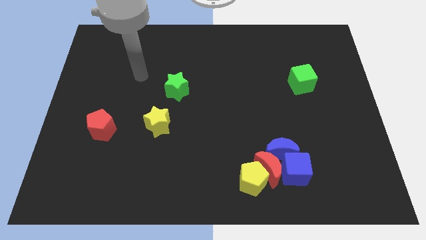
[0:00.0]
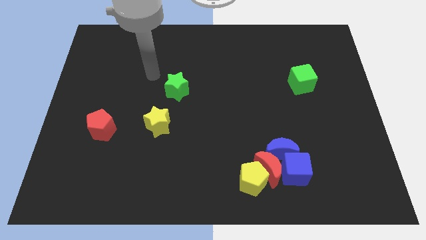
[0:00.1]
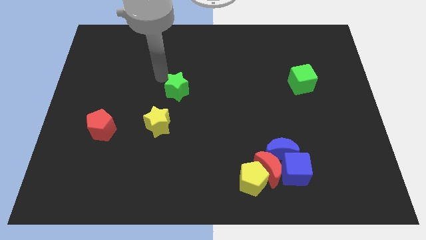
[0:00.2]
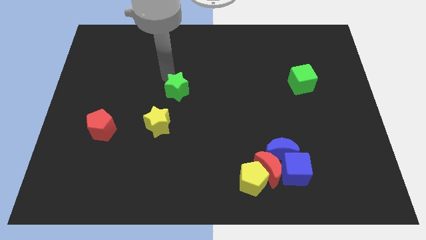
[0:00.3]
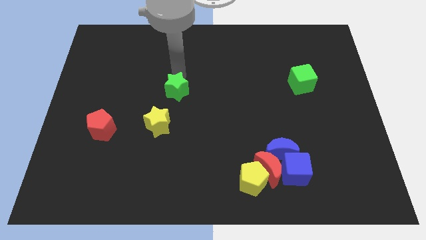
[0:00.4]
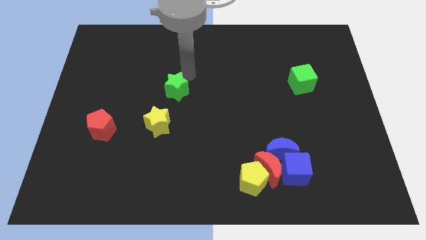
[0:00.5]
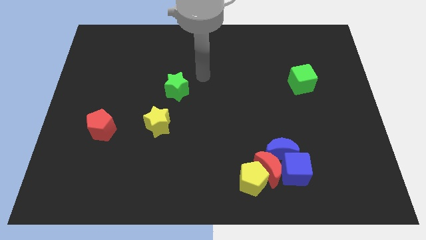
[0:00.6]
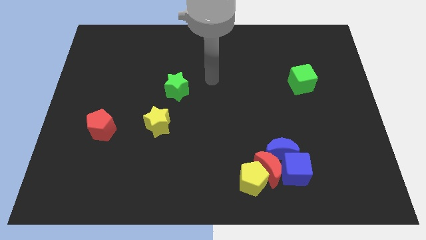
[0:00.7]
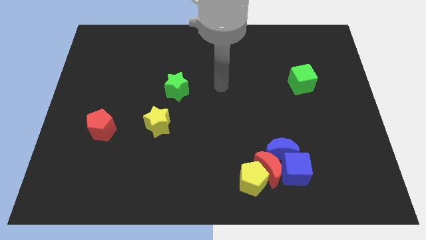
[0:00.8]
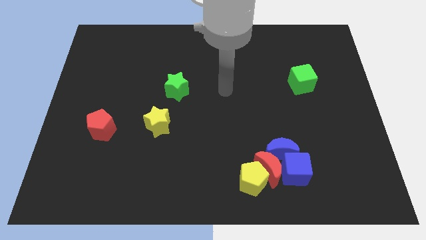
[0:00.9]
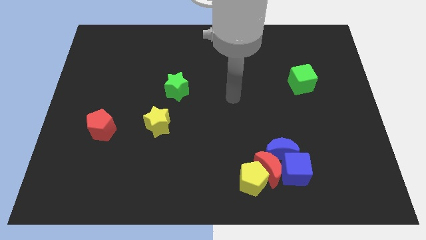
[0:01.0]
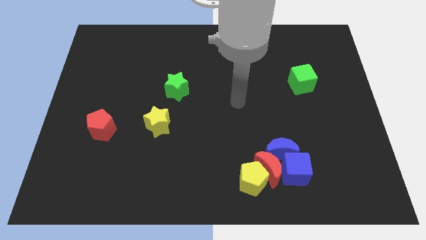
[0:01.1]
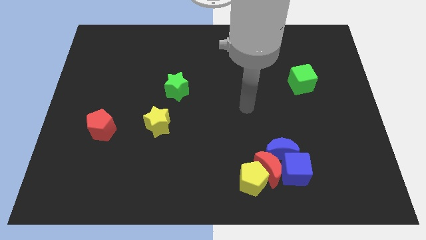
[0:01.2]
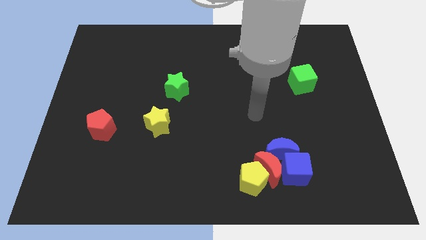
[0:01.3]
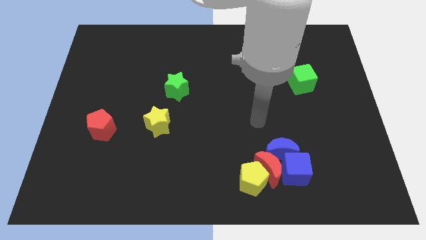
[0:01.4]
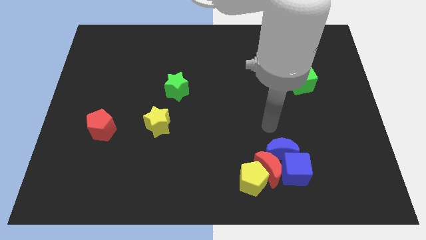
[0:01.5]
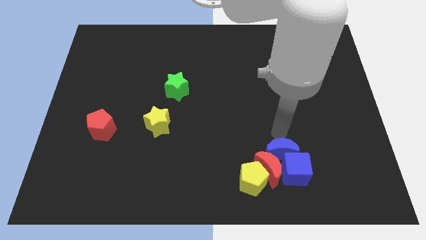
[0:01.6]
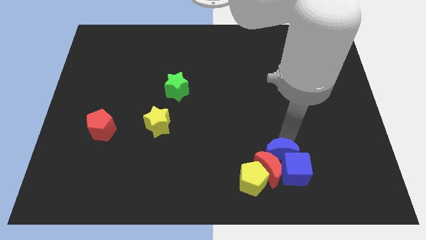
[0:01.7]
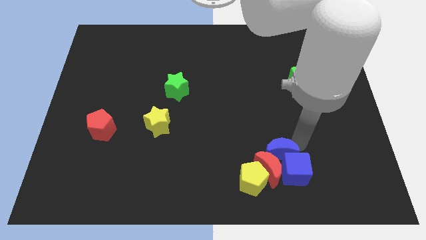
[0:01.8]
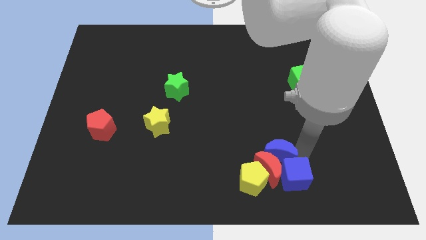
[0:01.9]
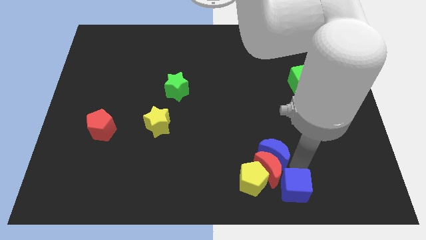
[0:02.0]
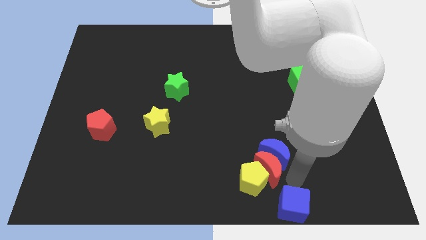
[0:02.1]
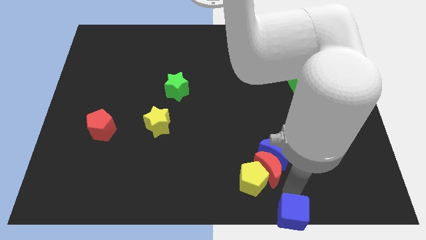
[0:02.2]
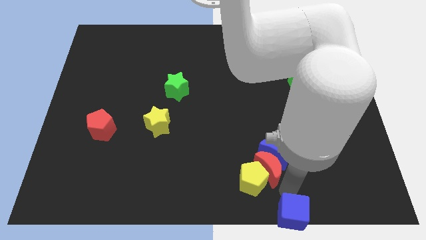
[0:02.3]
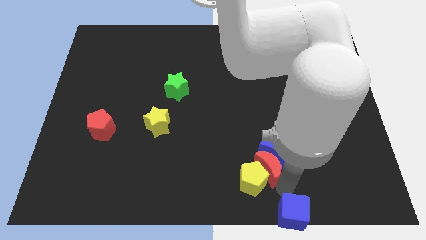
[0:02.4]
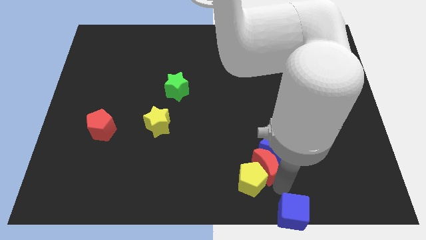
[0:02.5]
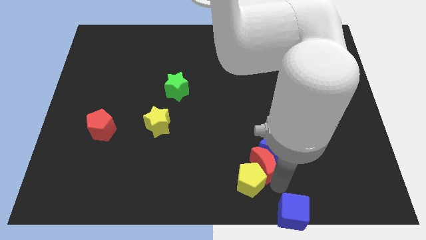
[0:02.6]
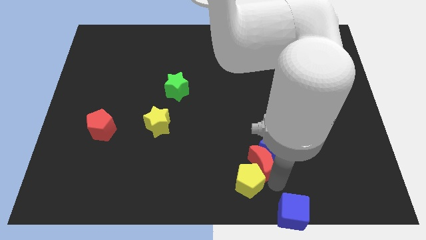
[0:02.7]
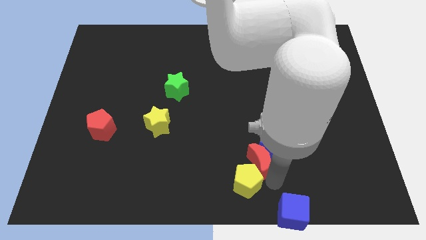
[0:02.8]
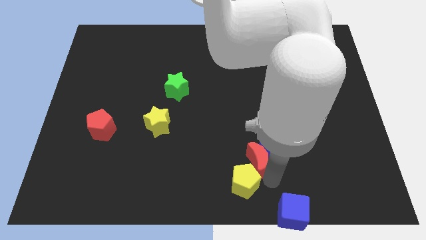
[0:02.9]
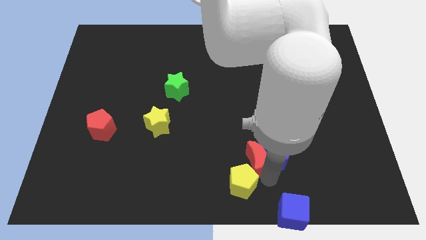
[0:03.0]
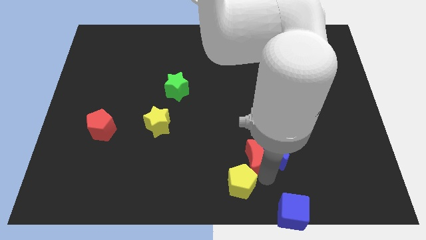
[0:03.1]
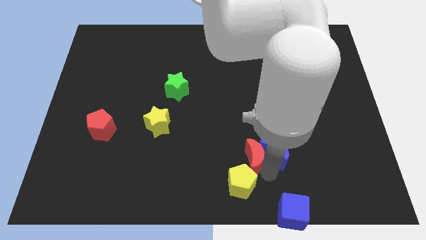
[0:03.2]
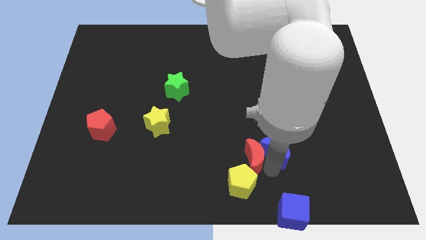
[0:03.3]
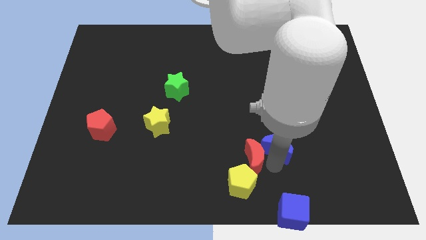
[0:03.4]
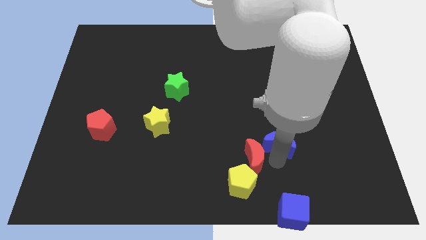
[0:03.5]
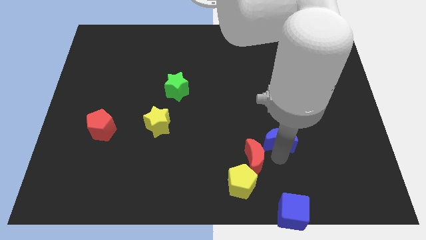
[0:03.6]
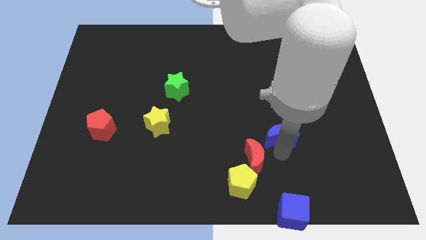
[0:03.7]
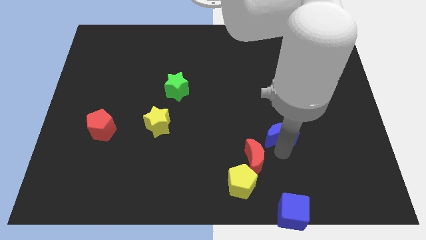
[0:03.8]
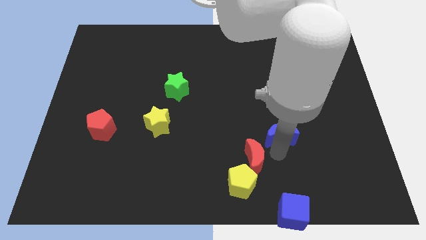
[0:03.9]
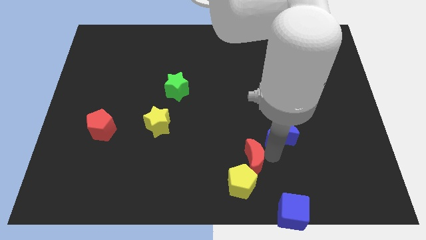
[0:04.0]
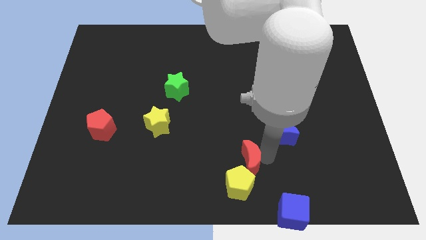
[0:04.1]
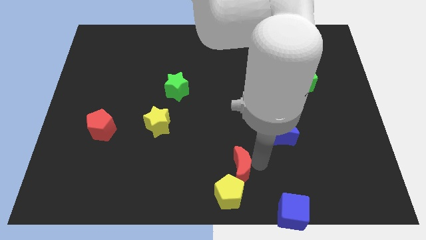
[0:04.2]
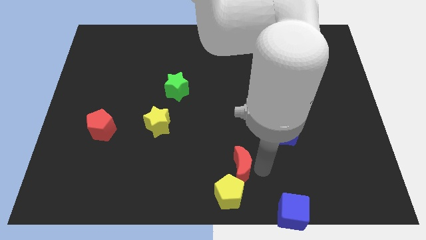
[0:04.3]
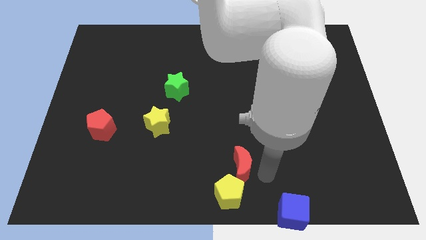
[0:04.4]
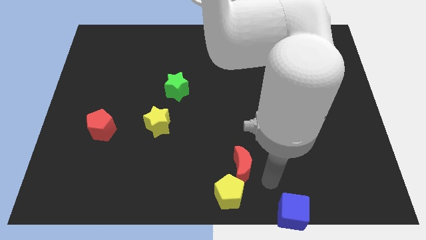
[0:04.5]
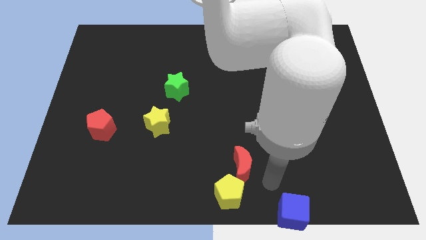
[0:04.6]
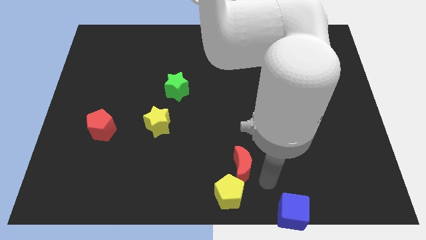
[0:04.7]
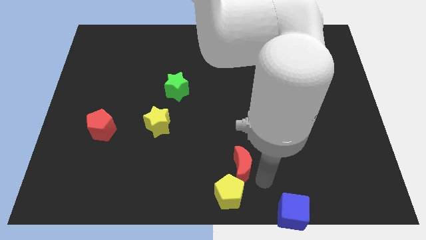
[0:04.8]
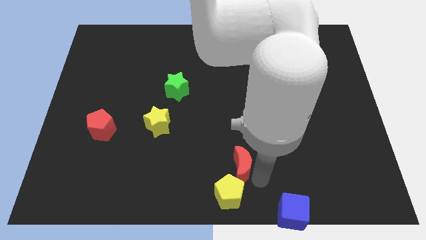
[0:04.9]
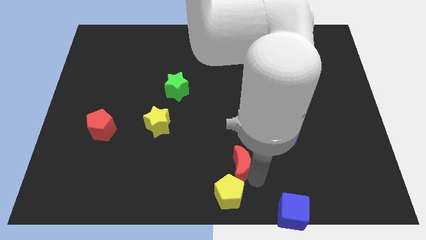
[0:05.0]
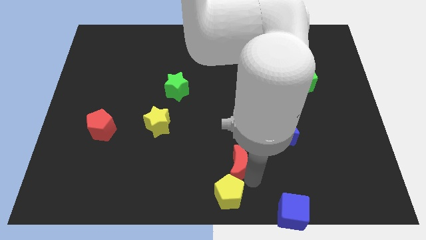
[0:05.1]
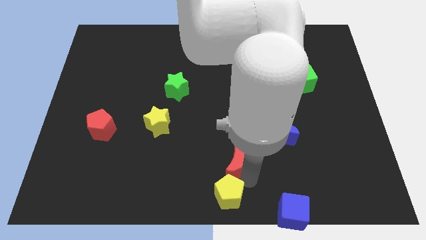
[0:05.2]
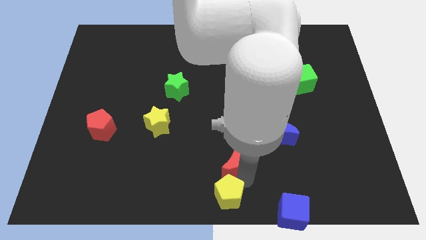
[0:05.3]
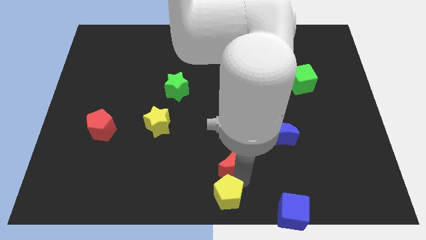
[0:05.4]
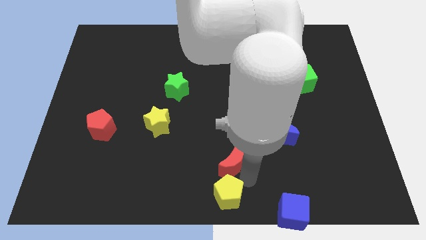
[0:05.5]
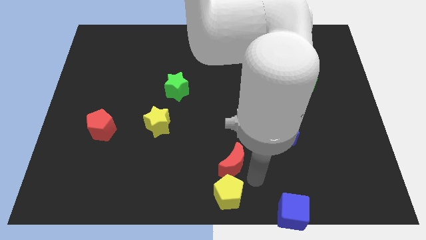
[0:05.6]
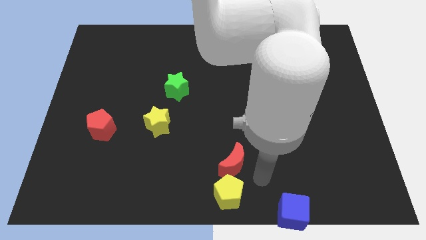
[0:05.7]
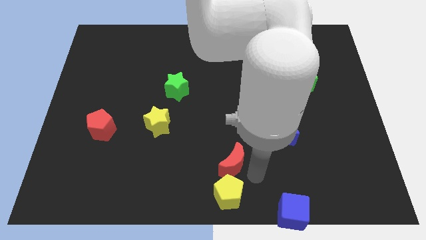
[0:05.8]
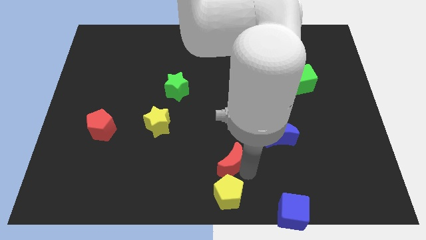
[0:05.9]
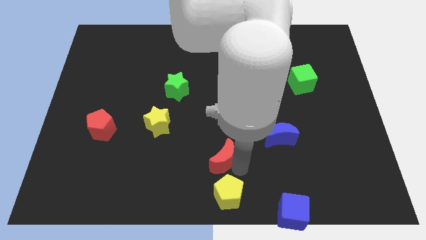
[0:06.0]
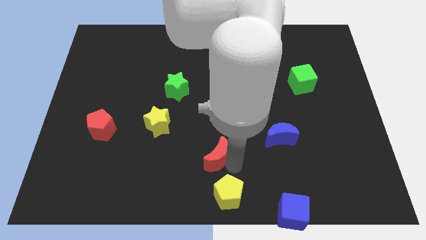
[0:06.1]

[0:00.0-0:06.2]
move the red moon away from the yellow pentagon, blue moon, and blue cube

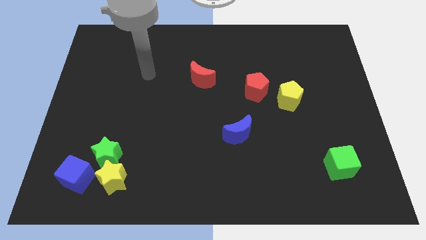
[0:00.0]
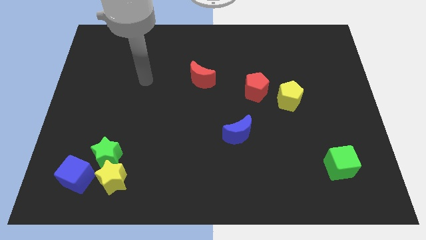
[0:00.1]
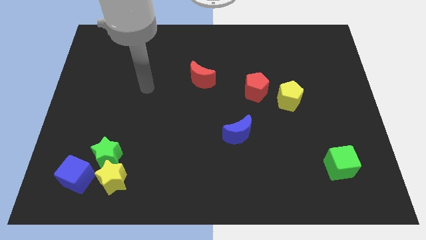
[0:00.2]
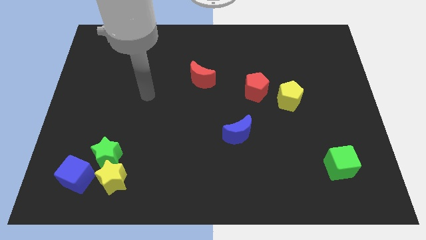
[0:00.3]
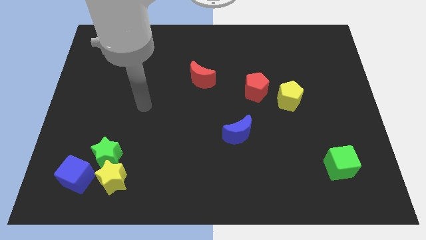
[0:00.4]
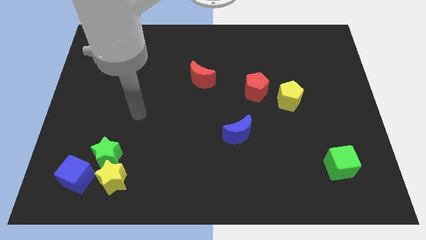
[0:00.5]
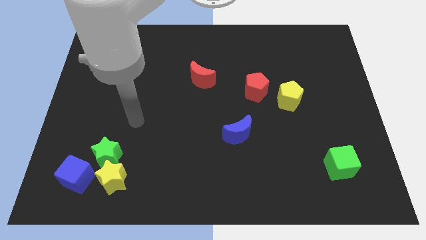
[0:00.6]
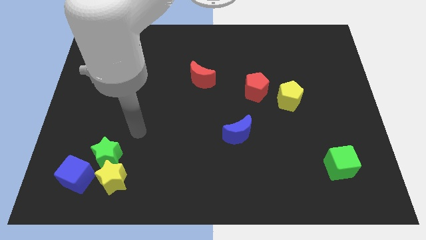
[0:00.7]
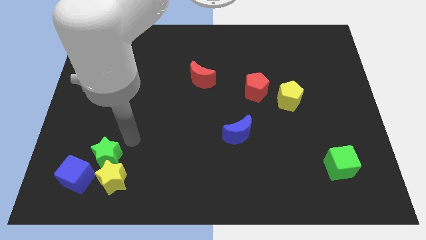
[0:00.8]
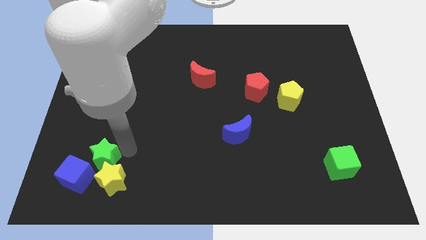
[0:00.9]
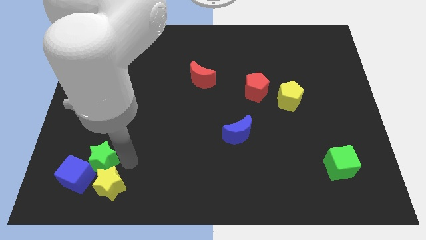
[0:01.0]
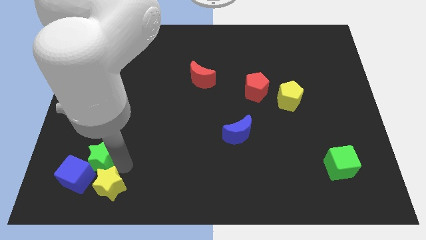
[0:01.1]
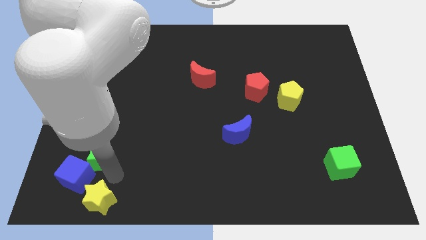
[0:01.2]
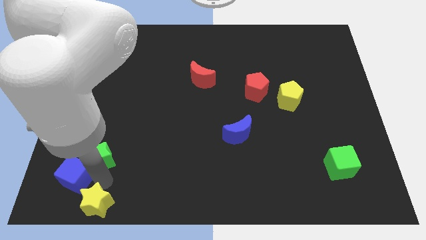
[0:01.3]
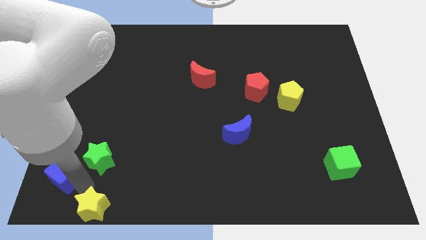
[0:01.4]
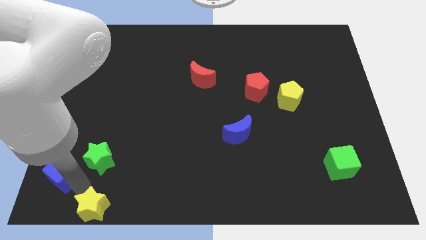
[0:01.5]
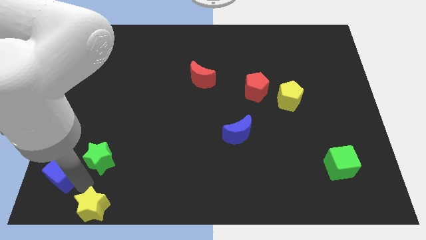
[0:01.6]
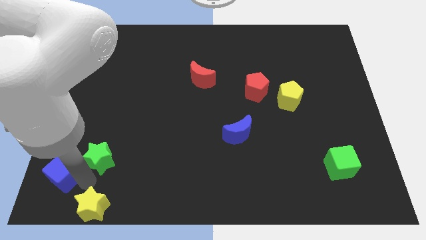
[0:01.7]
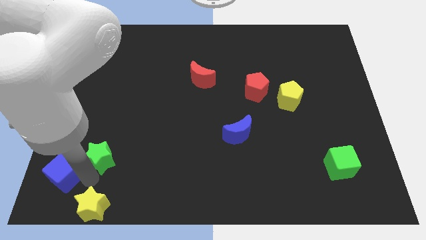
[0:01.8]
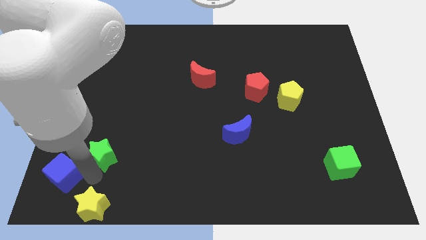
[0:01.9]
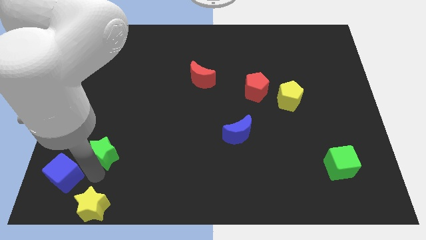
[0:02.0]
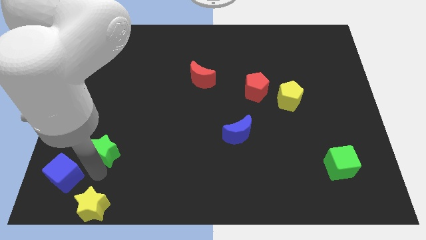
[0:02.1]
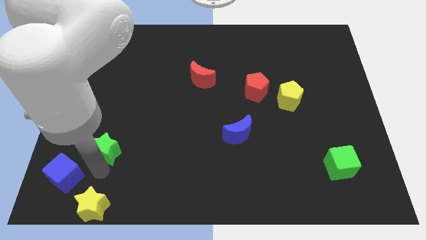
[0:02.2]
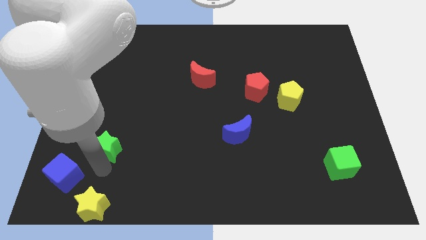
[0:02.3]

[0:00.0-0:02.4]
move the green star away from the yellow star and blue cube

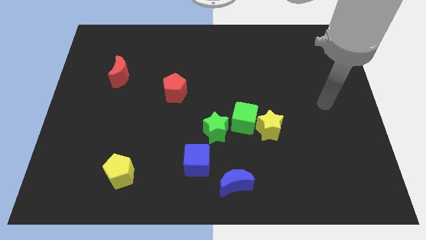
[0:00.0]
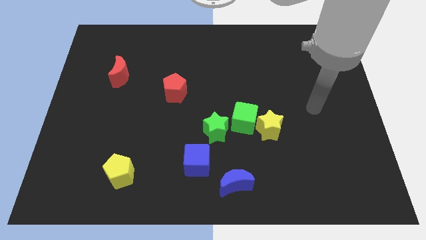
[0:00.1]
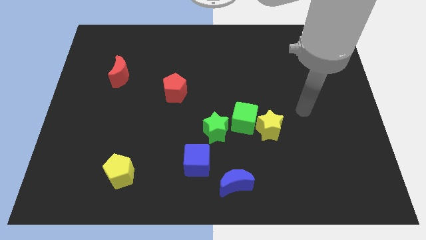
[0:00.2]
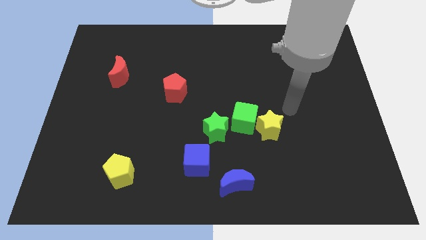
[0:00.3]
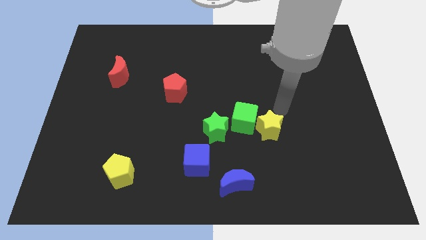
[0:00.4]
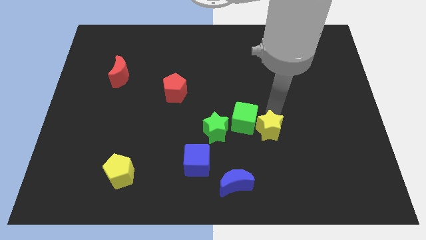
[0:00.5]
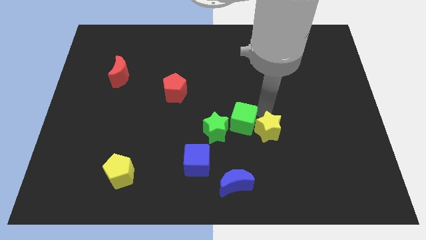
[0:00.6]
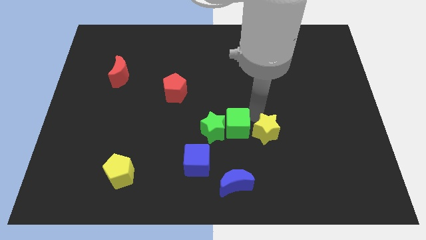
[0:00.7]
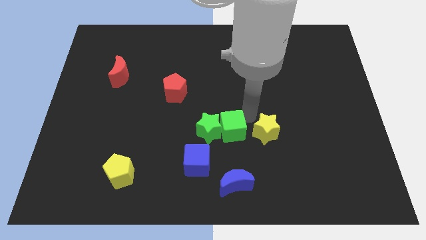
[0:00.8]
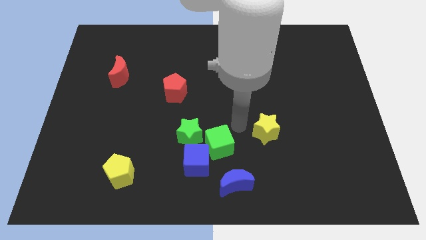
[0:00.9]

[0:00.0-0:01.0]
move the yellow star away from the green cube

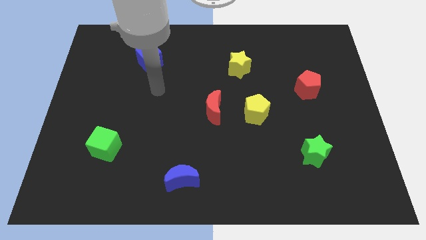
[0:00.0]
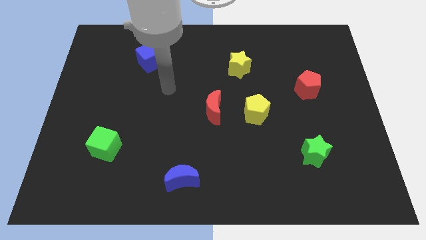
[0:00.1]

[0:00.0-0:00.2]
separate the red moon from the yellow pentagon
